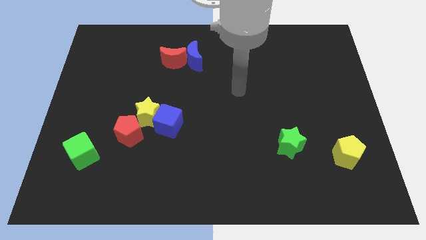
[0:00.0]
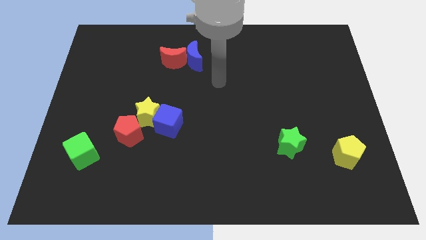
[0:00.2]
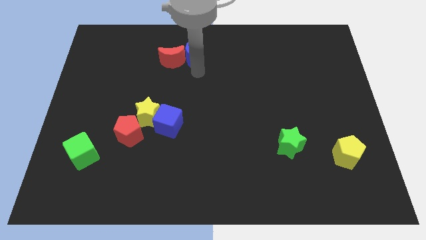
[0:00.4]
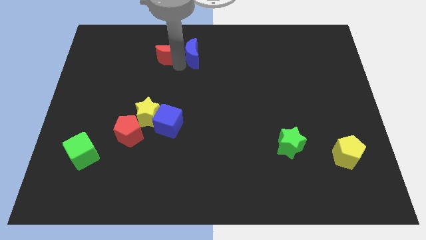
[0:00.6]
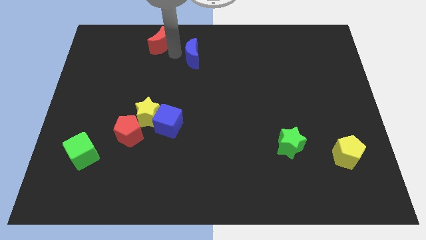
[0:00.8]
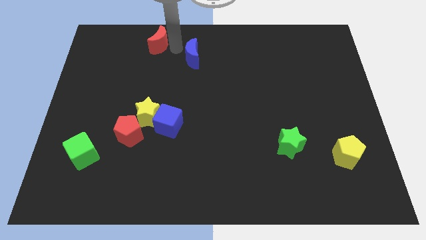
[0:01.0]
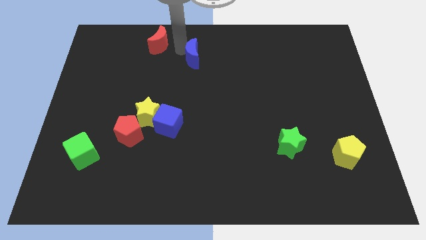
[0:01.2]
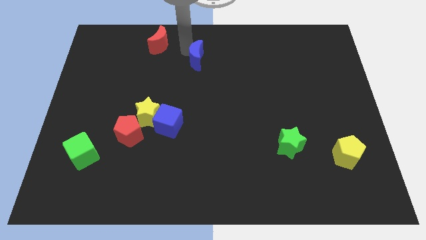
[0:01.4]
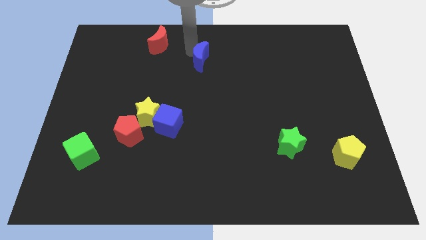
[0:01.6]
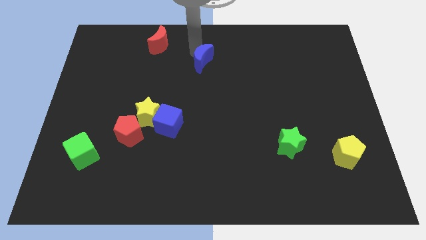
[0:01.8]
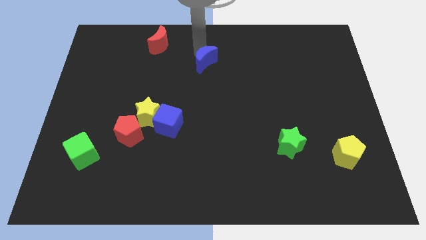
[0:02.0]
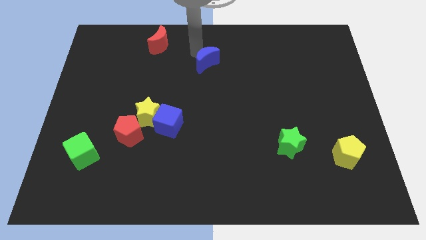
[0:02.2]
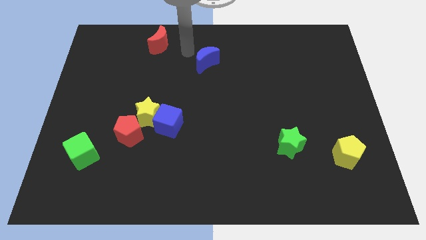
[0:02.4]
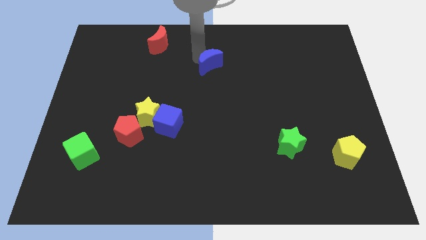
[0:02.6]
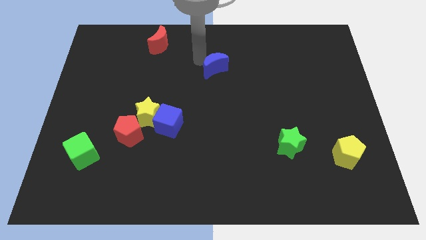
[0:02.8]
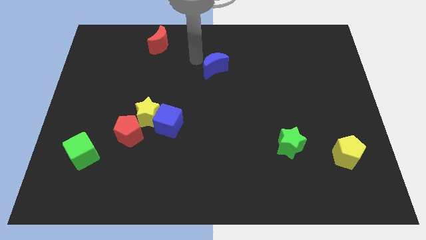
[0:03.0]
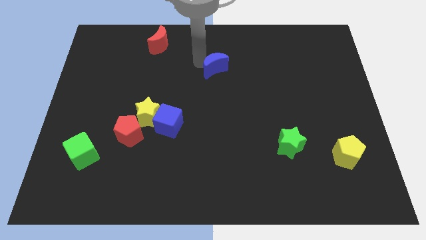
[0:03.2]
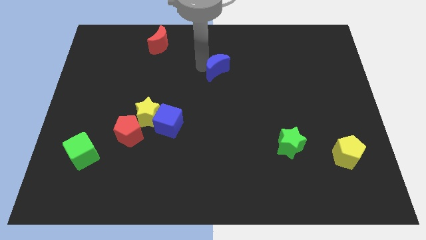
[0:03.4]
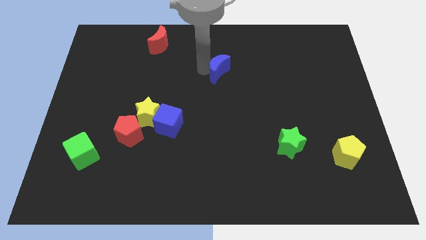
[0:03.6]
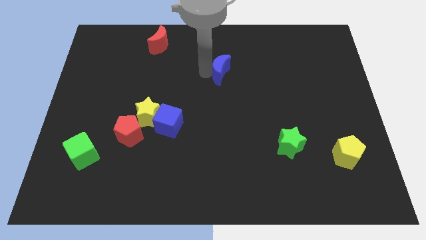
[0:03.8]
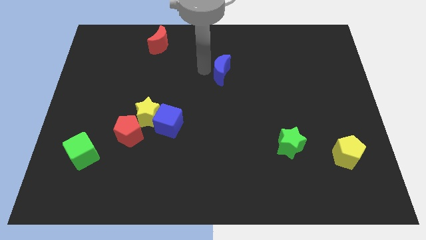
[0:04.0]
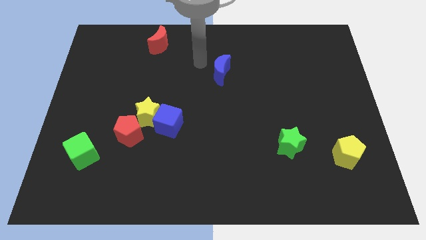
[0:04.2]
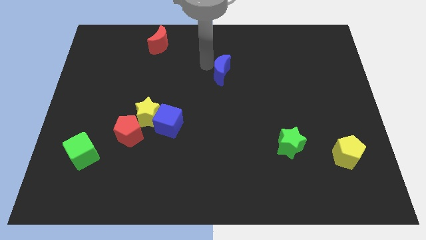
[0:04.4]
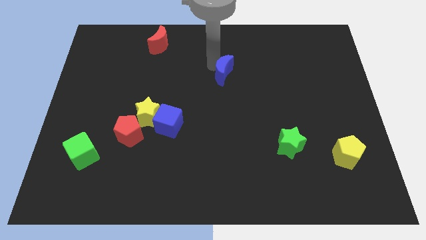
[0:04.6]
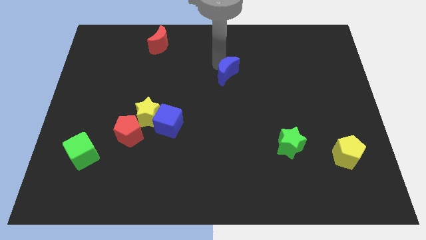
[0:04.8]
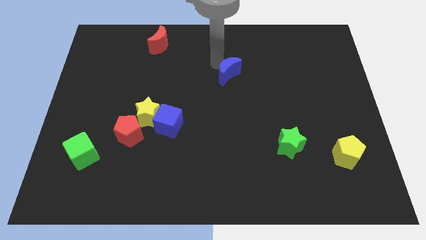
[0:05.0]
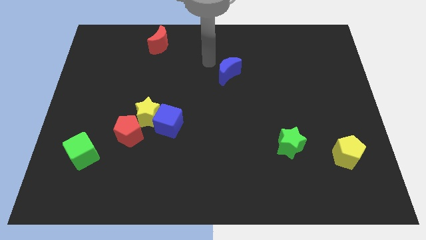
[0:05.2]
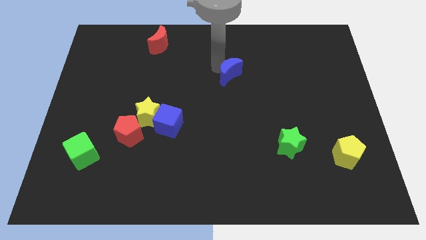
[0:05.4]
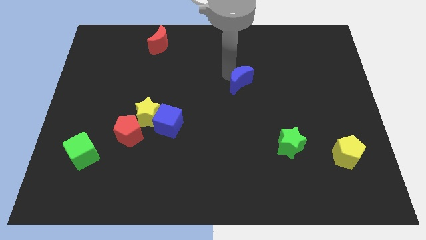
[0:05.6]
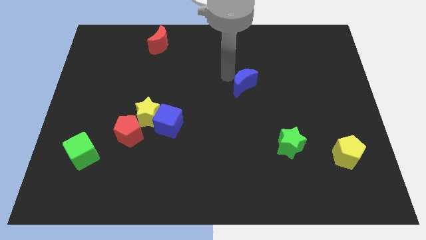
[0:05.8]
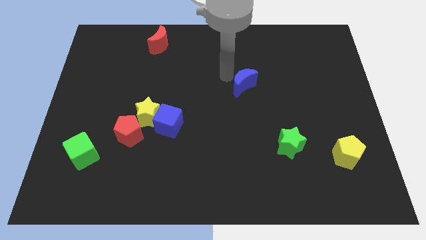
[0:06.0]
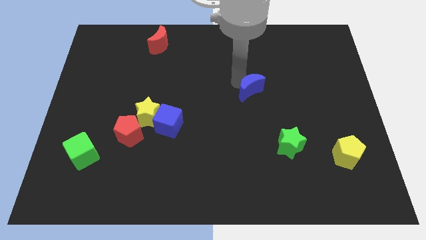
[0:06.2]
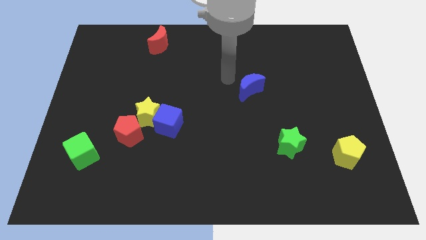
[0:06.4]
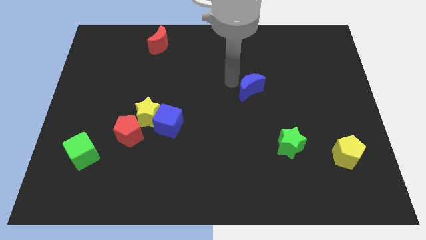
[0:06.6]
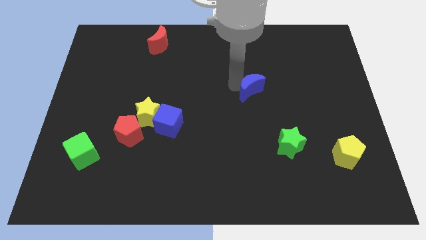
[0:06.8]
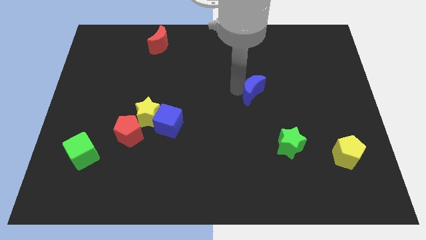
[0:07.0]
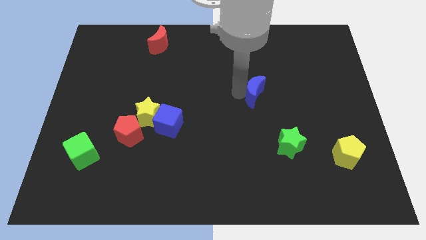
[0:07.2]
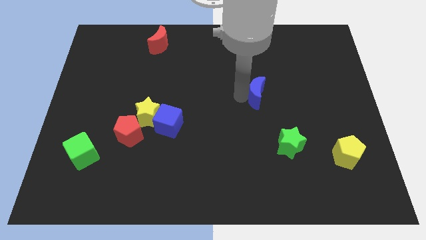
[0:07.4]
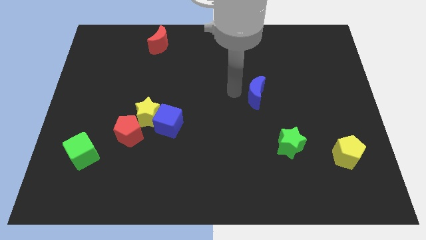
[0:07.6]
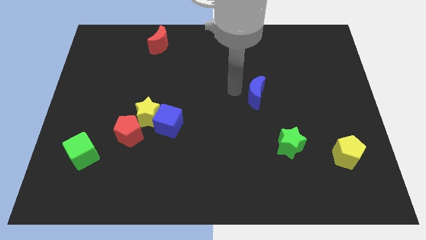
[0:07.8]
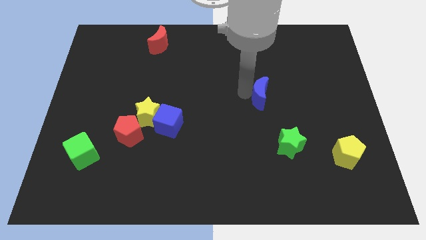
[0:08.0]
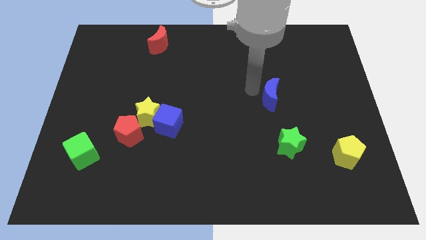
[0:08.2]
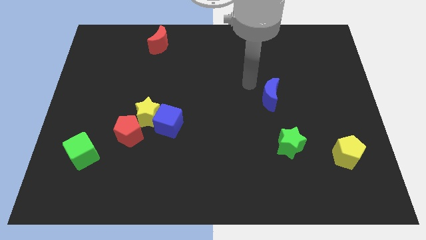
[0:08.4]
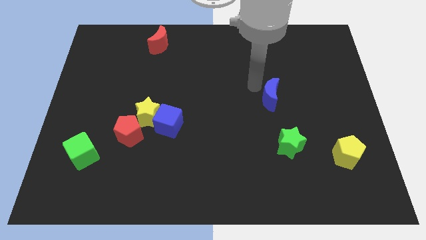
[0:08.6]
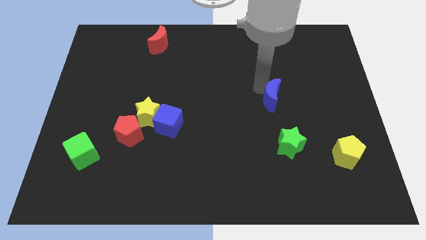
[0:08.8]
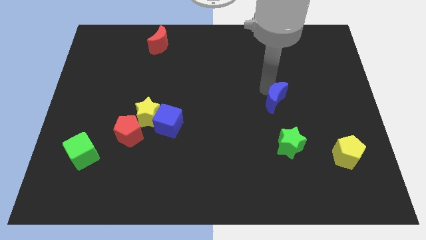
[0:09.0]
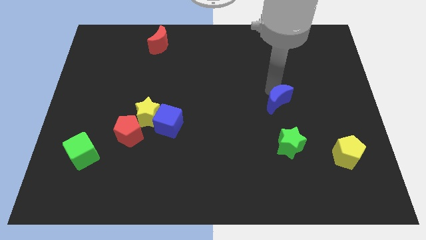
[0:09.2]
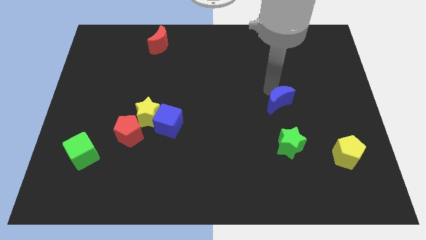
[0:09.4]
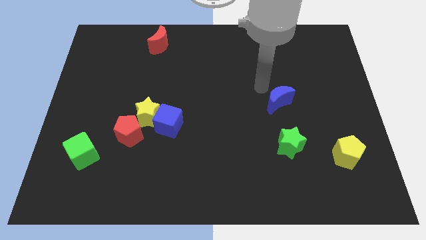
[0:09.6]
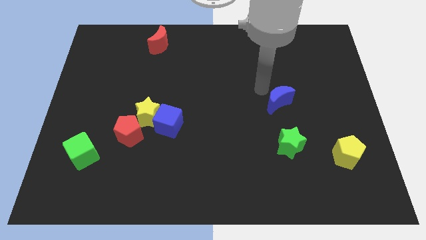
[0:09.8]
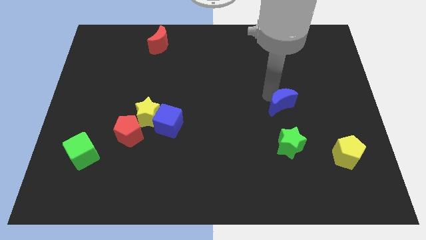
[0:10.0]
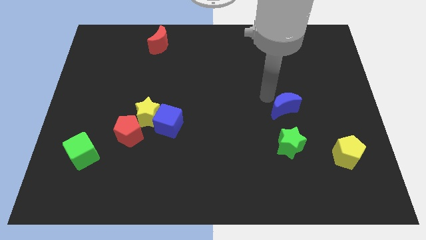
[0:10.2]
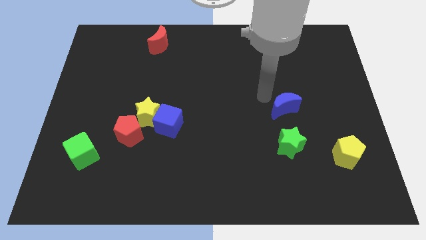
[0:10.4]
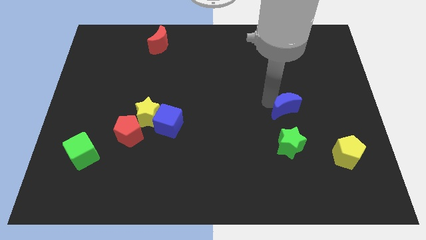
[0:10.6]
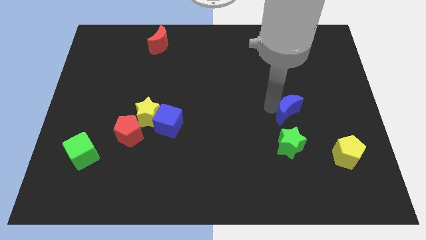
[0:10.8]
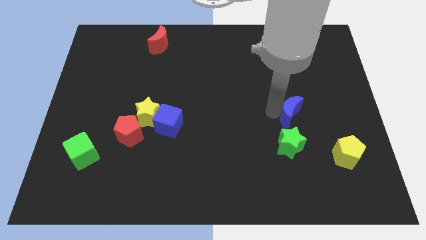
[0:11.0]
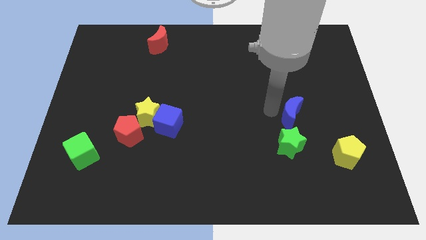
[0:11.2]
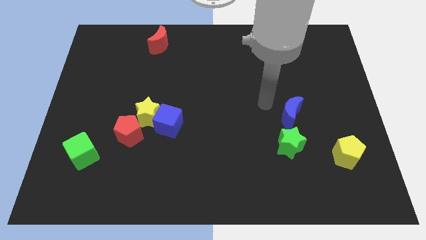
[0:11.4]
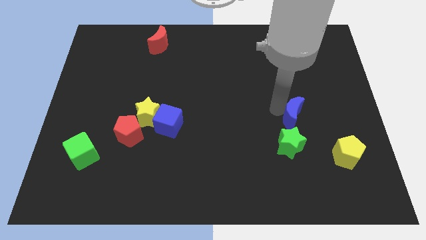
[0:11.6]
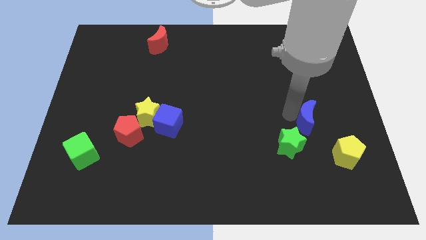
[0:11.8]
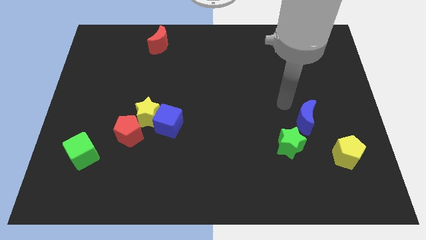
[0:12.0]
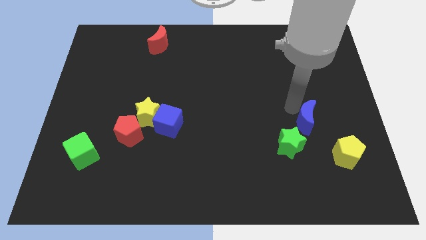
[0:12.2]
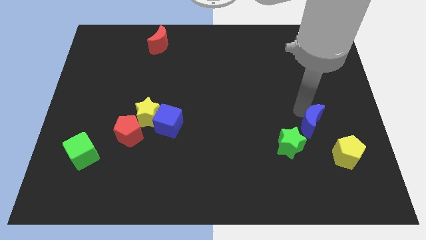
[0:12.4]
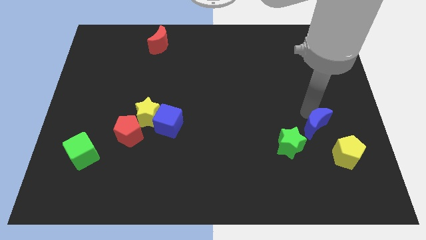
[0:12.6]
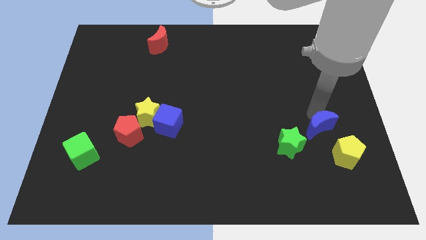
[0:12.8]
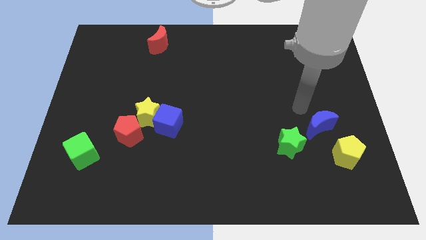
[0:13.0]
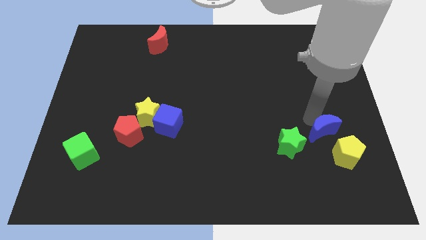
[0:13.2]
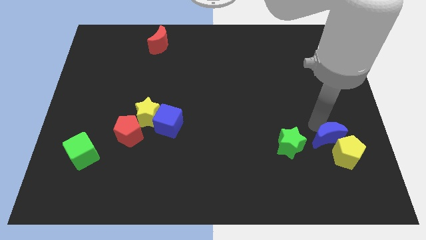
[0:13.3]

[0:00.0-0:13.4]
move the blue moon next to the yellow pentagon

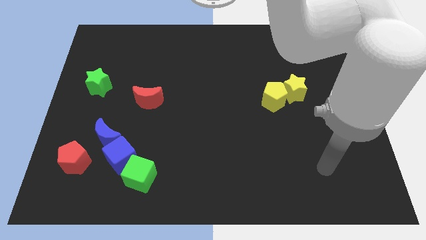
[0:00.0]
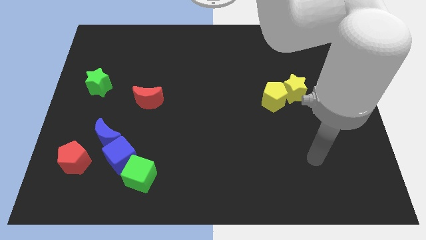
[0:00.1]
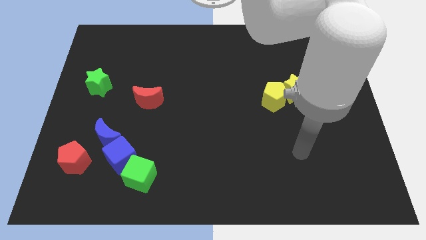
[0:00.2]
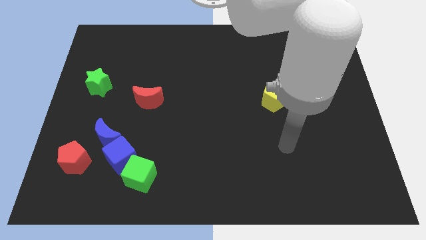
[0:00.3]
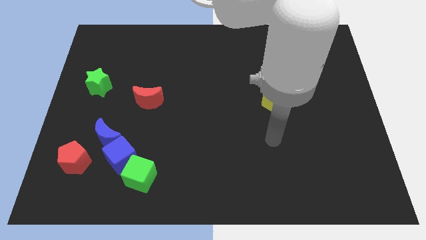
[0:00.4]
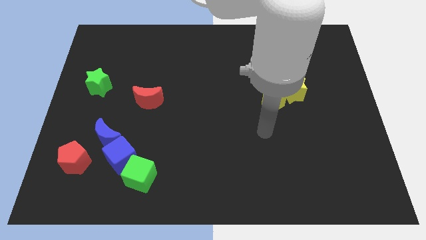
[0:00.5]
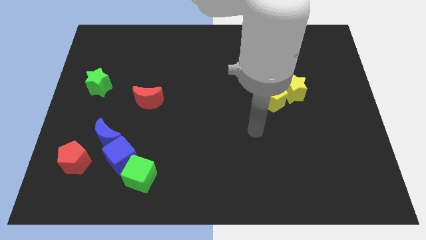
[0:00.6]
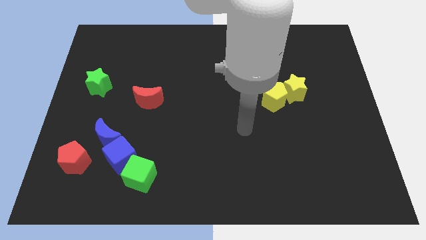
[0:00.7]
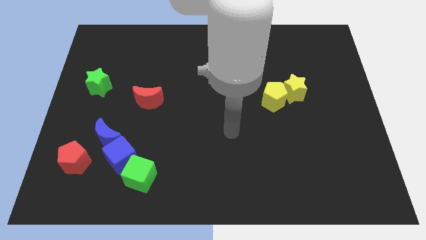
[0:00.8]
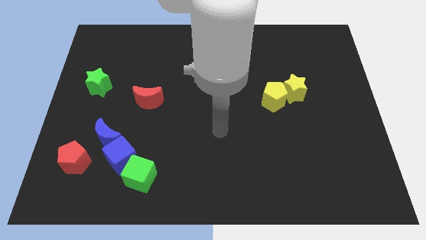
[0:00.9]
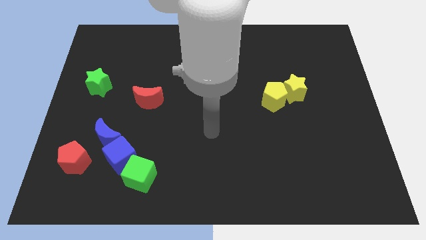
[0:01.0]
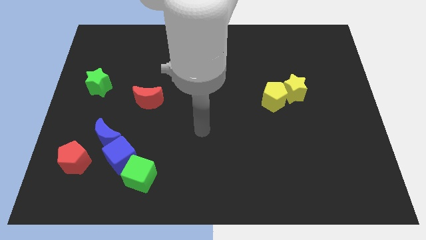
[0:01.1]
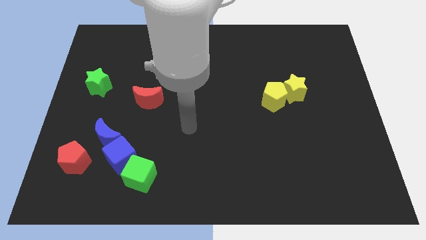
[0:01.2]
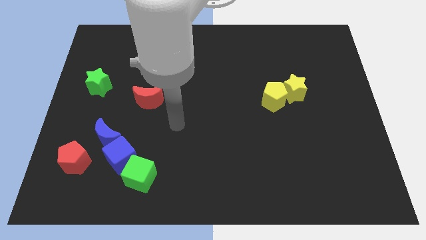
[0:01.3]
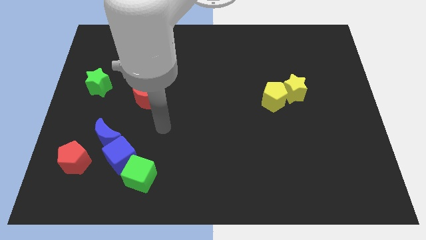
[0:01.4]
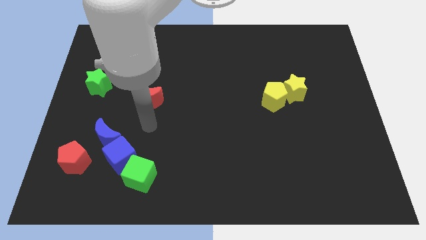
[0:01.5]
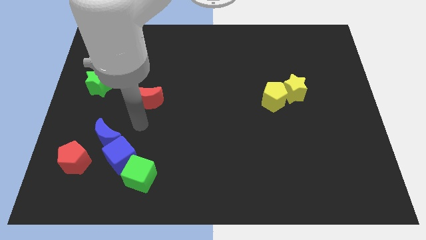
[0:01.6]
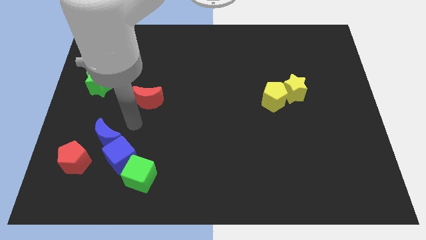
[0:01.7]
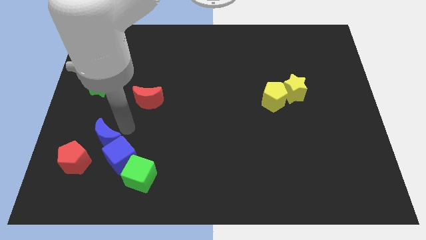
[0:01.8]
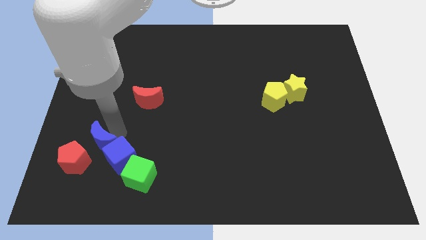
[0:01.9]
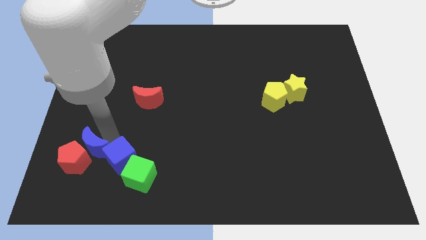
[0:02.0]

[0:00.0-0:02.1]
slide the blue moon next to the red pentagon
